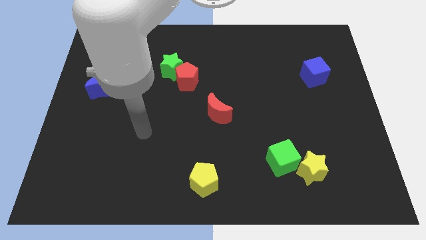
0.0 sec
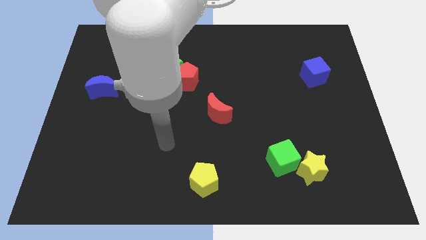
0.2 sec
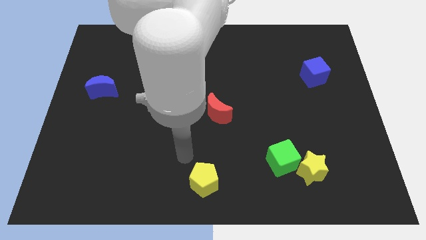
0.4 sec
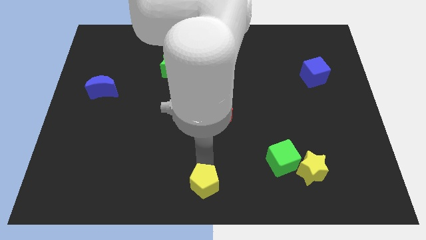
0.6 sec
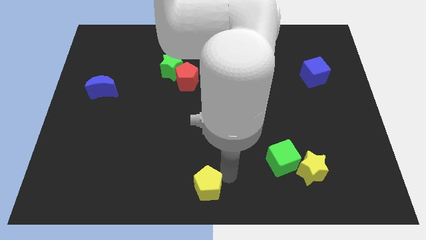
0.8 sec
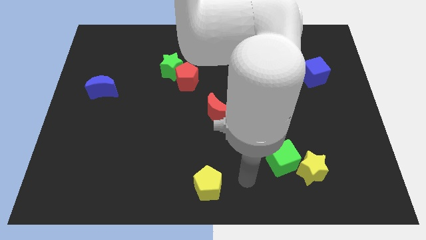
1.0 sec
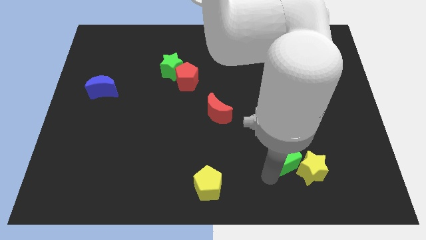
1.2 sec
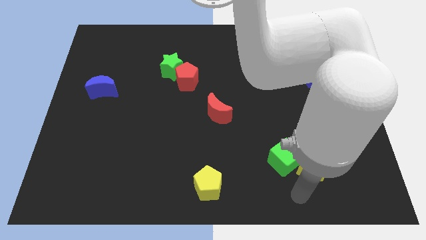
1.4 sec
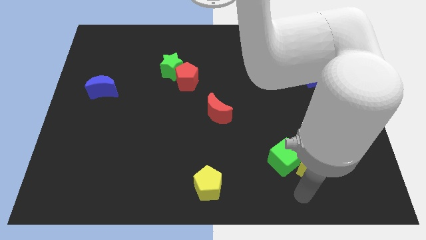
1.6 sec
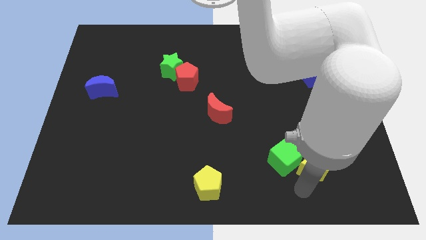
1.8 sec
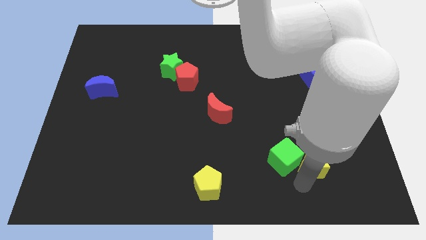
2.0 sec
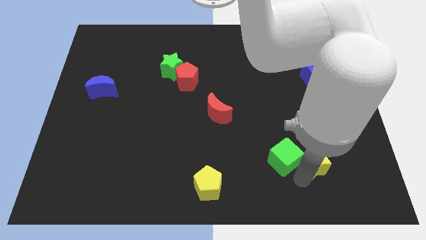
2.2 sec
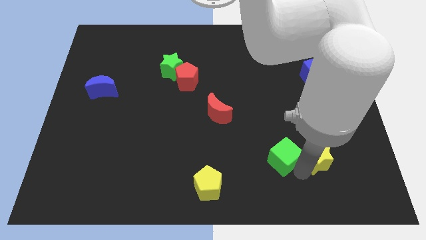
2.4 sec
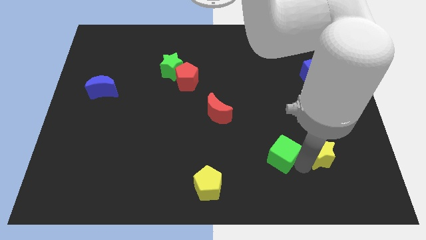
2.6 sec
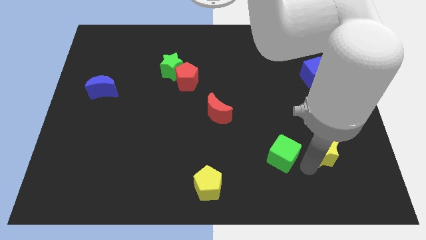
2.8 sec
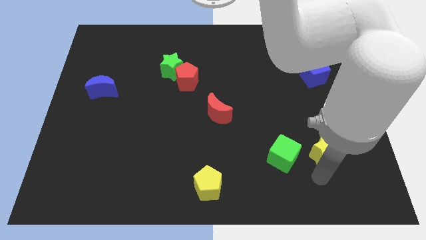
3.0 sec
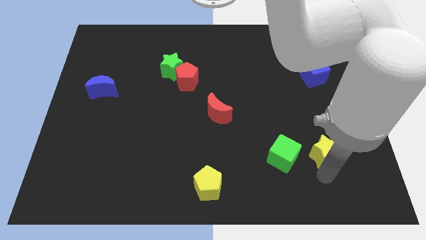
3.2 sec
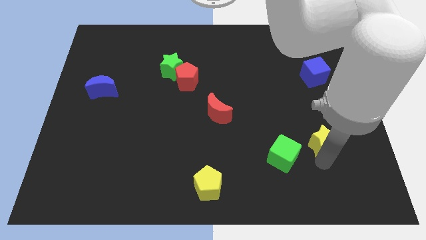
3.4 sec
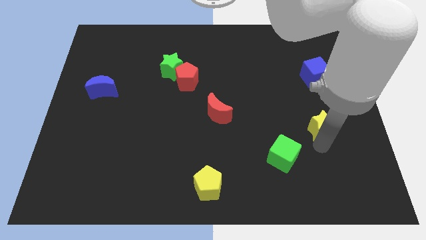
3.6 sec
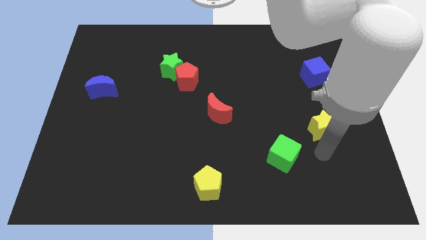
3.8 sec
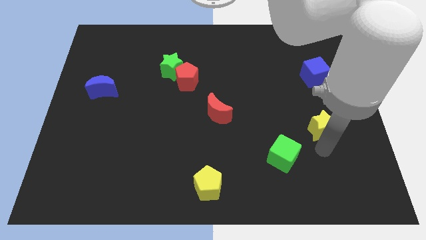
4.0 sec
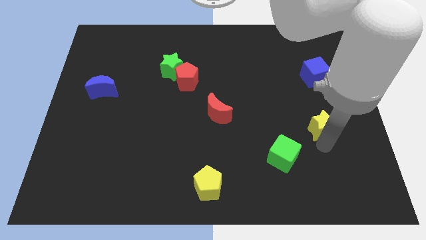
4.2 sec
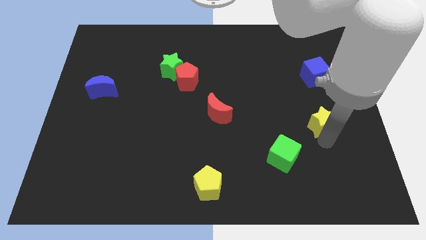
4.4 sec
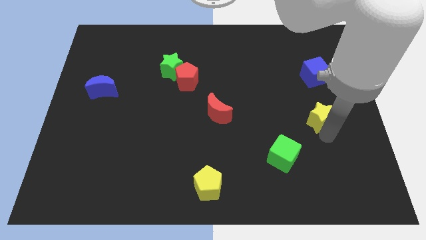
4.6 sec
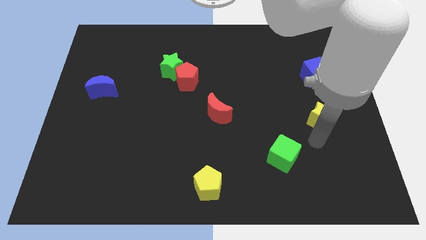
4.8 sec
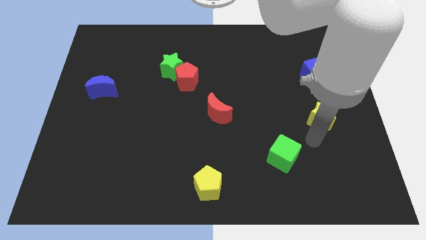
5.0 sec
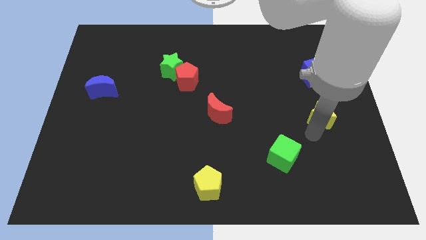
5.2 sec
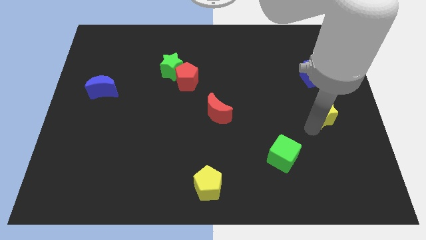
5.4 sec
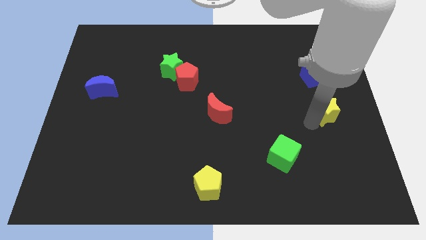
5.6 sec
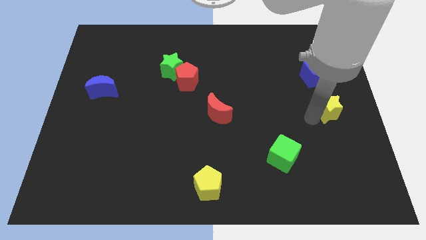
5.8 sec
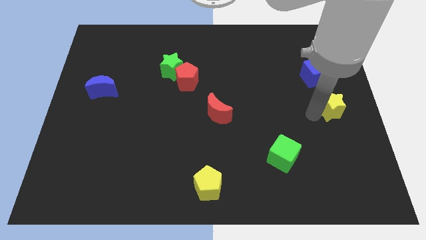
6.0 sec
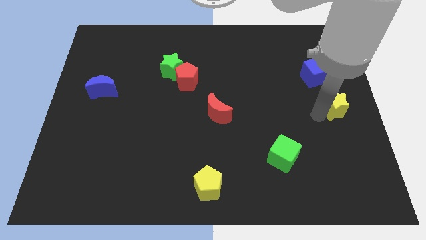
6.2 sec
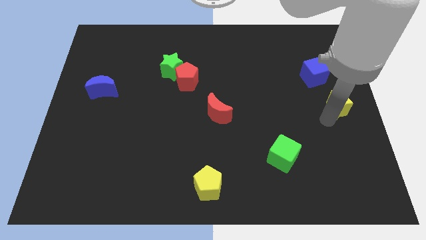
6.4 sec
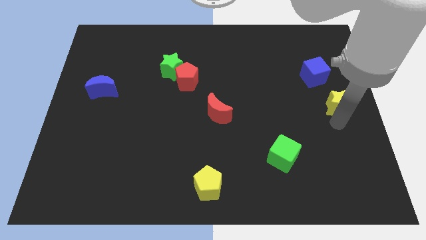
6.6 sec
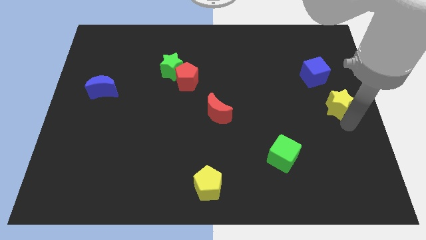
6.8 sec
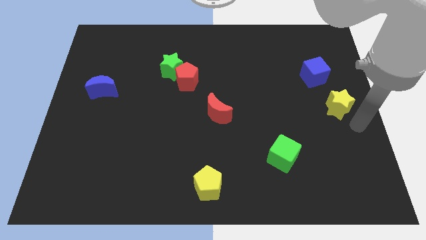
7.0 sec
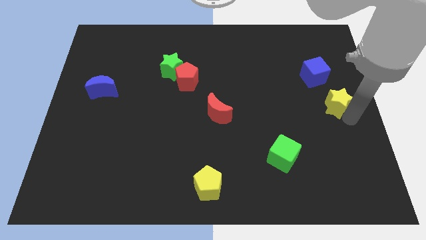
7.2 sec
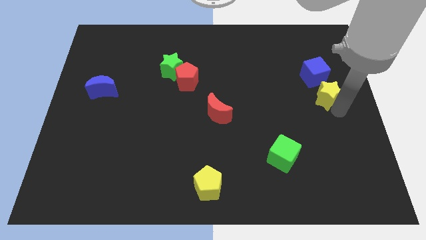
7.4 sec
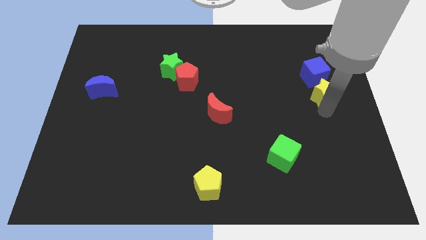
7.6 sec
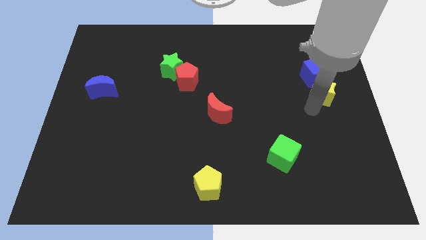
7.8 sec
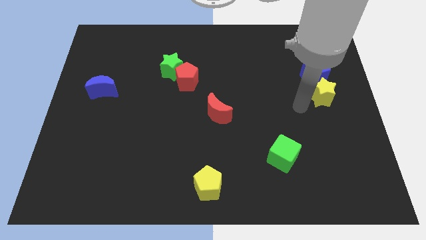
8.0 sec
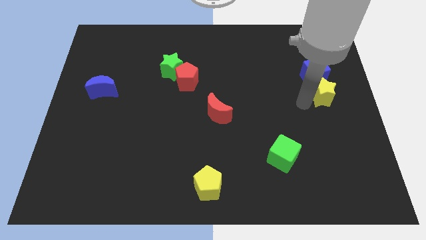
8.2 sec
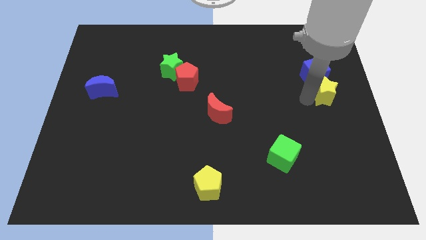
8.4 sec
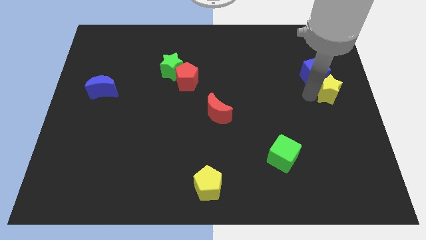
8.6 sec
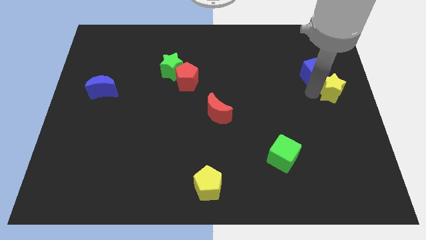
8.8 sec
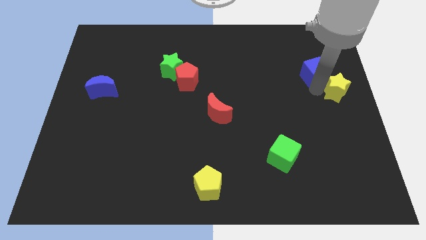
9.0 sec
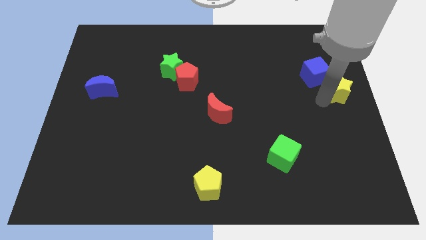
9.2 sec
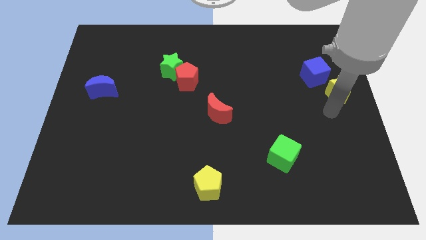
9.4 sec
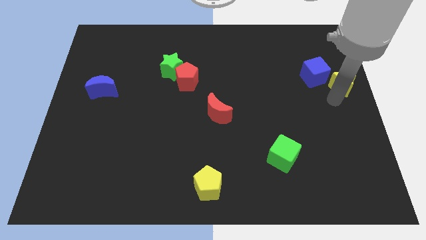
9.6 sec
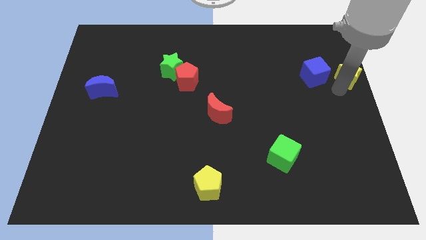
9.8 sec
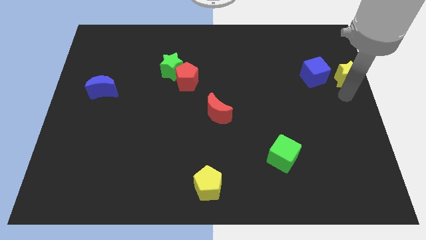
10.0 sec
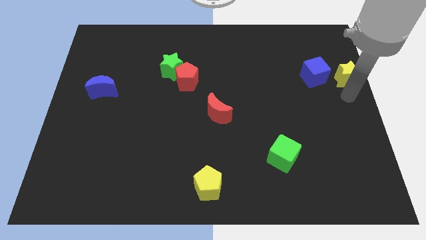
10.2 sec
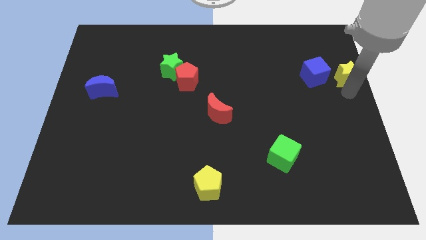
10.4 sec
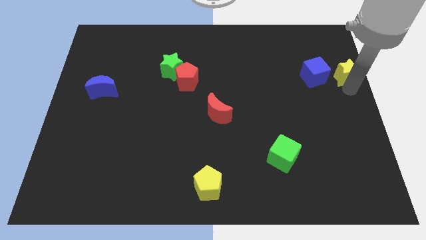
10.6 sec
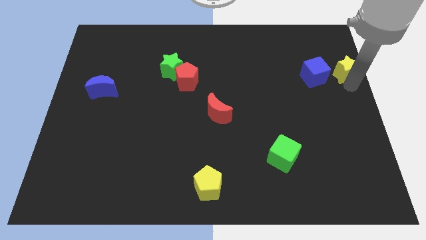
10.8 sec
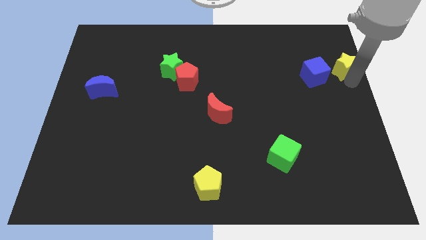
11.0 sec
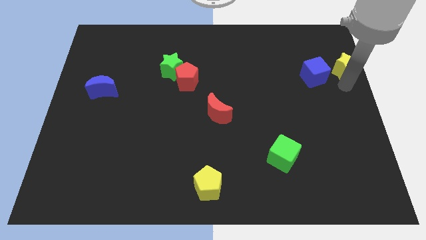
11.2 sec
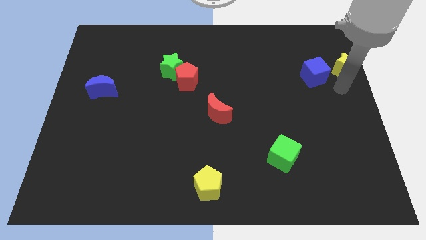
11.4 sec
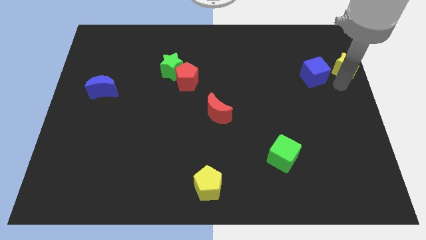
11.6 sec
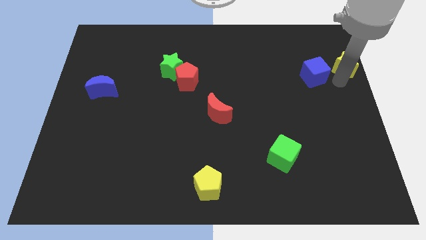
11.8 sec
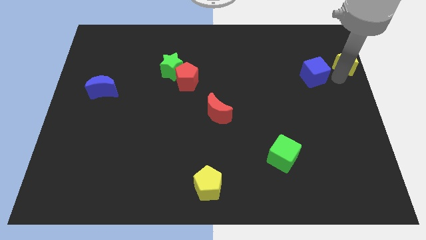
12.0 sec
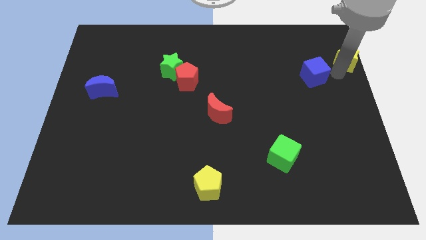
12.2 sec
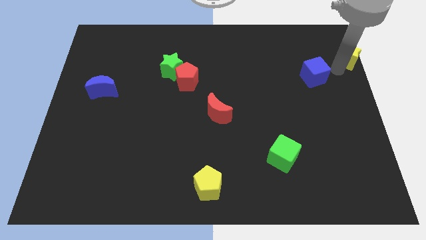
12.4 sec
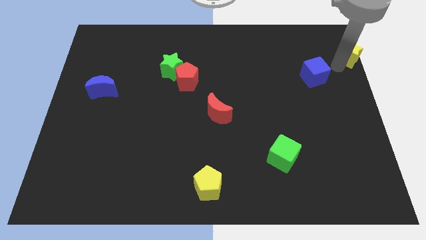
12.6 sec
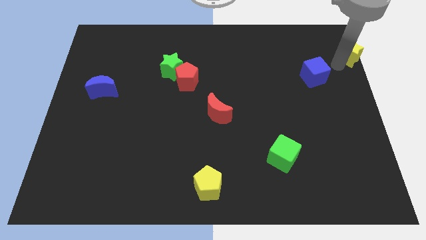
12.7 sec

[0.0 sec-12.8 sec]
slide the yellow star to the top right

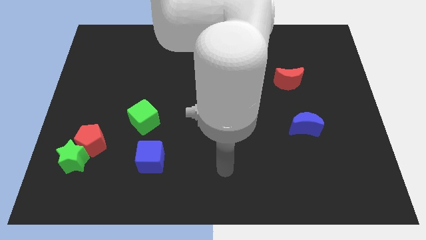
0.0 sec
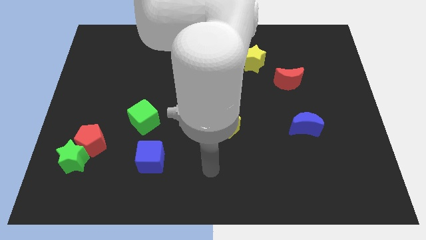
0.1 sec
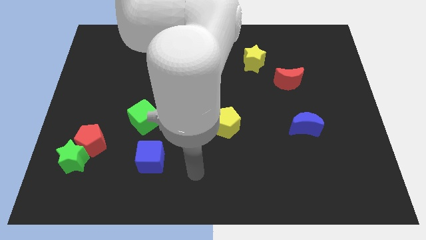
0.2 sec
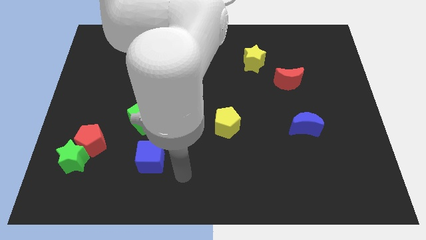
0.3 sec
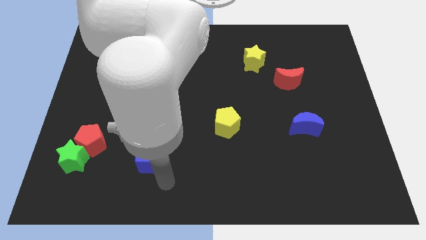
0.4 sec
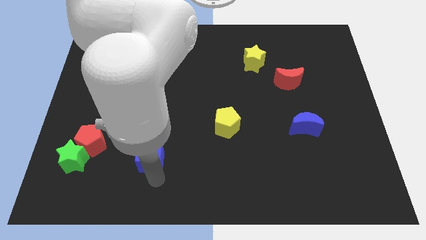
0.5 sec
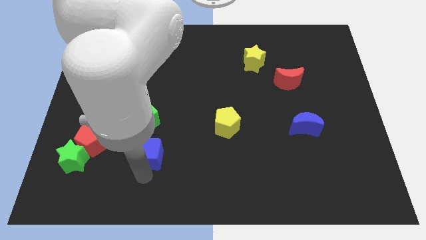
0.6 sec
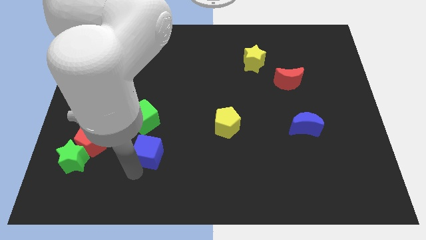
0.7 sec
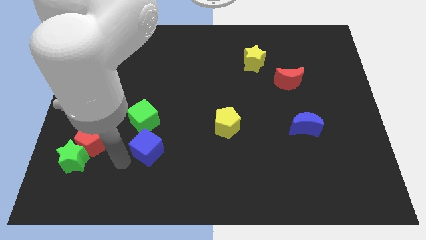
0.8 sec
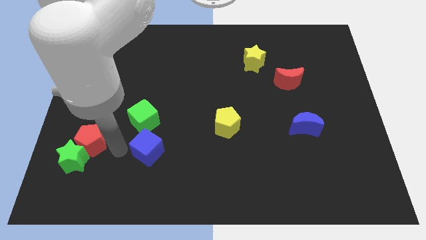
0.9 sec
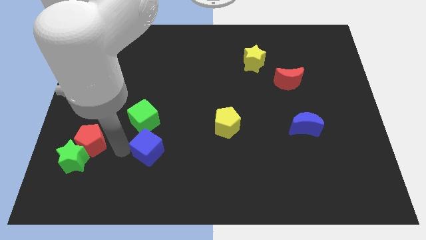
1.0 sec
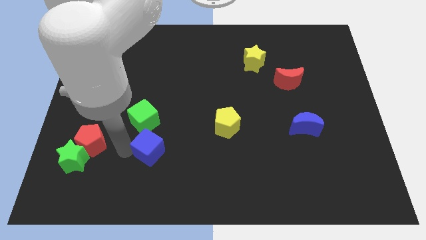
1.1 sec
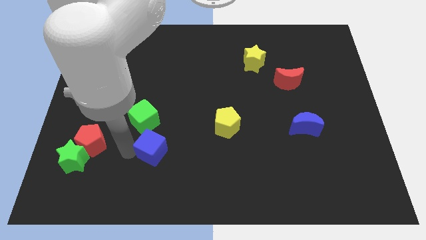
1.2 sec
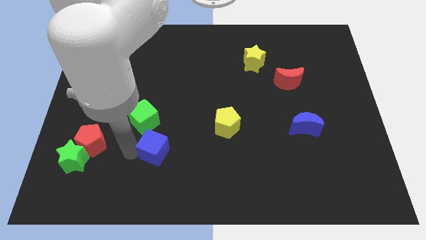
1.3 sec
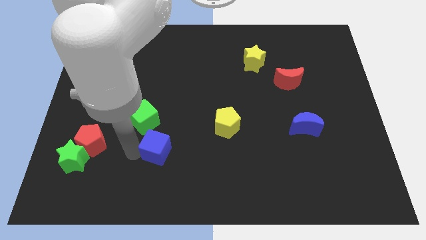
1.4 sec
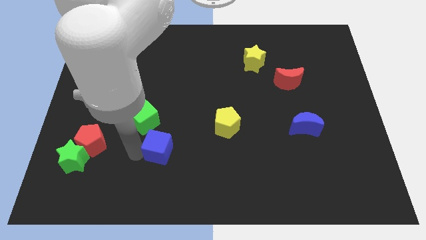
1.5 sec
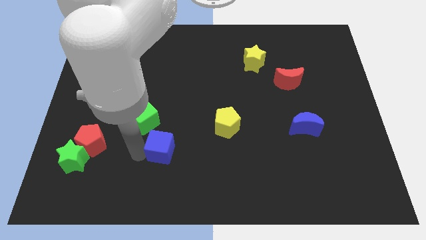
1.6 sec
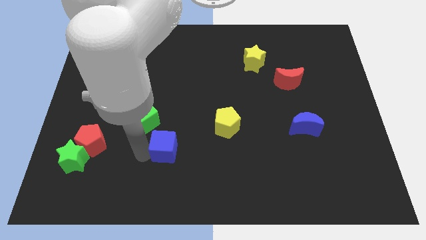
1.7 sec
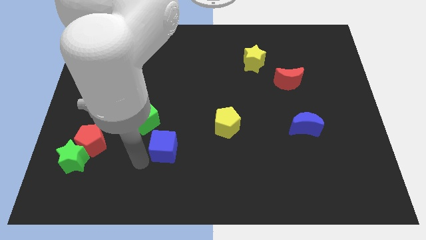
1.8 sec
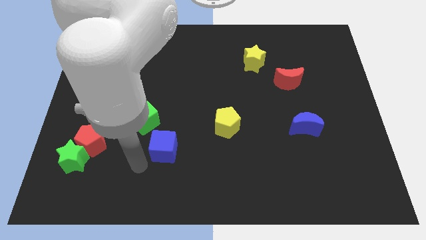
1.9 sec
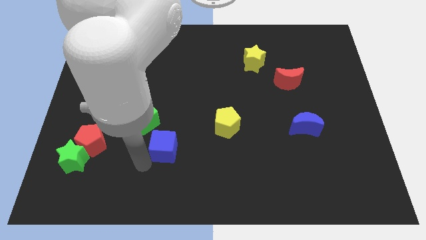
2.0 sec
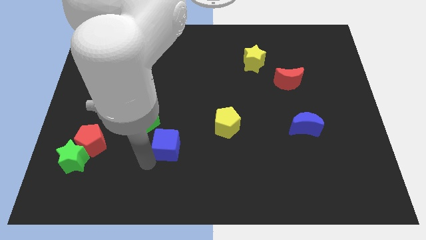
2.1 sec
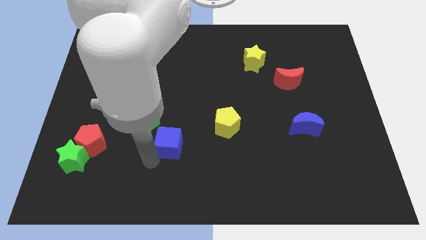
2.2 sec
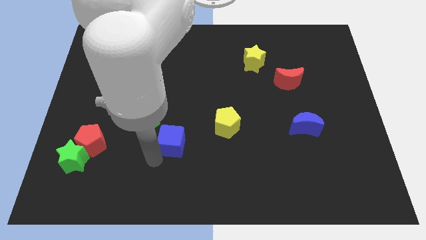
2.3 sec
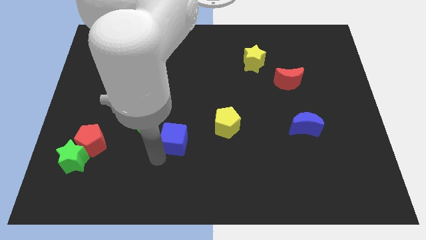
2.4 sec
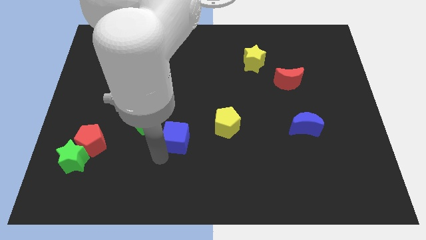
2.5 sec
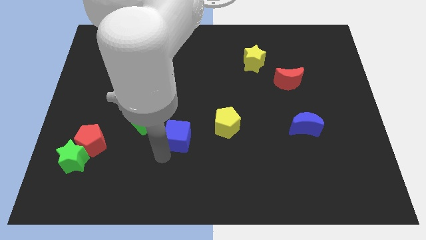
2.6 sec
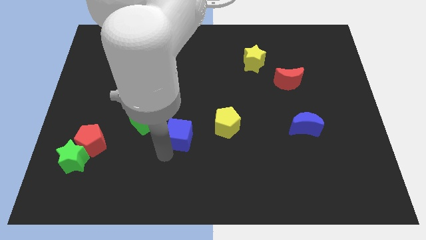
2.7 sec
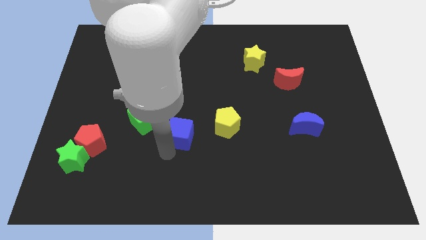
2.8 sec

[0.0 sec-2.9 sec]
move the blue cube to the middle
